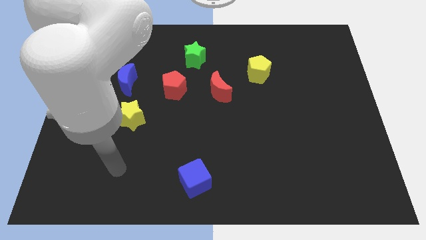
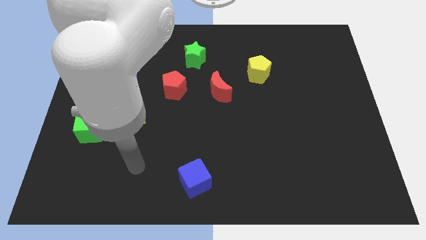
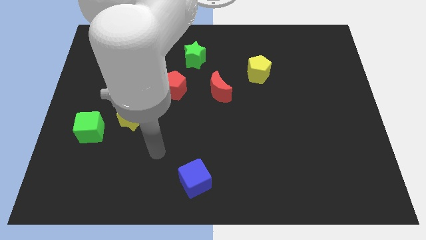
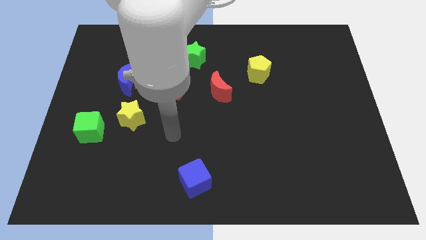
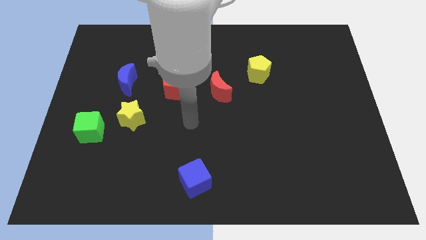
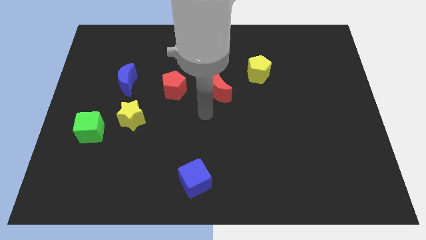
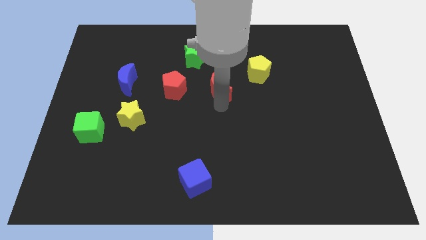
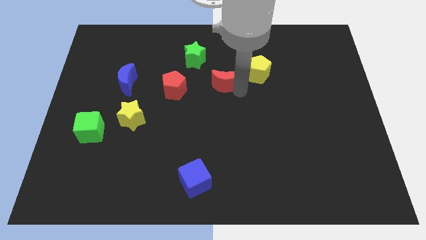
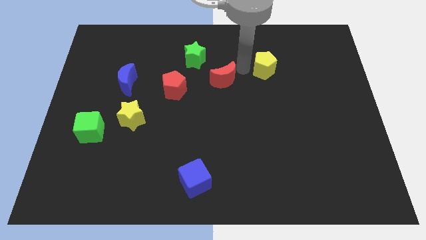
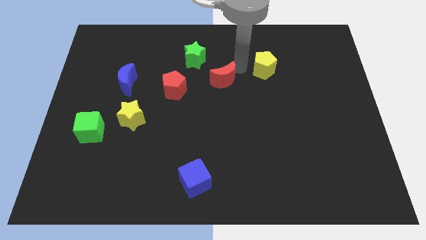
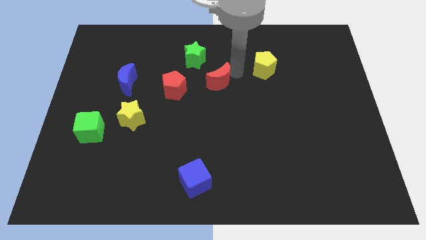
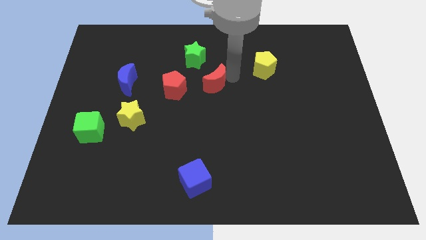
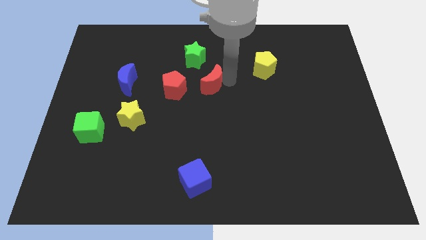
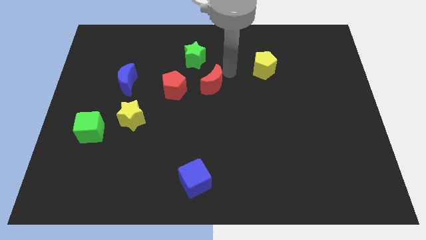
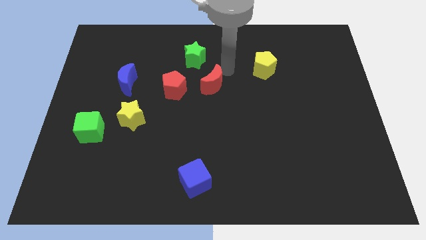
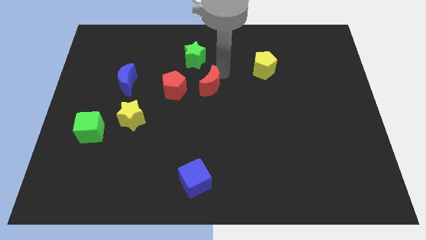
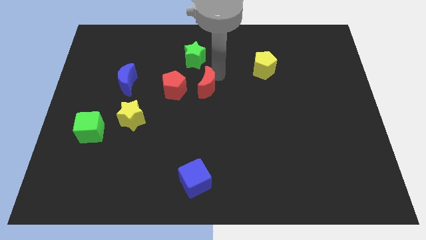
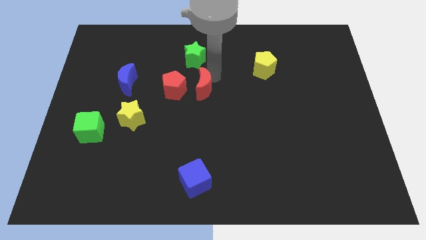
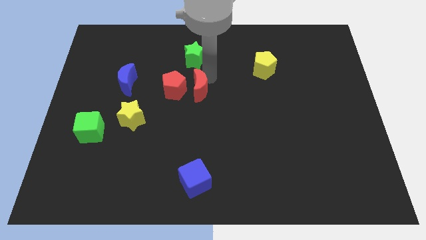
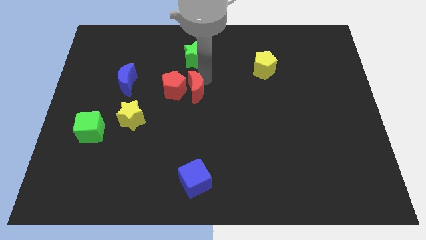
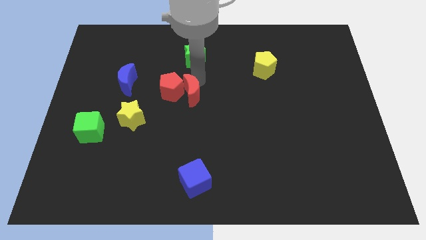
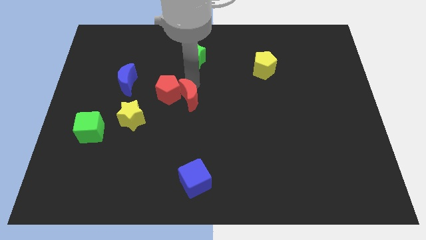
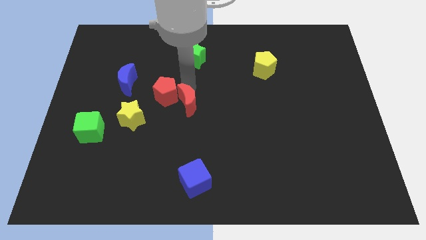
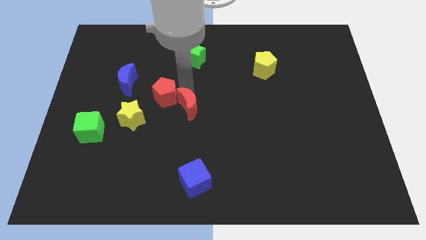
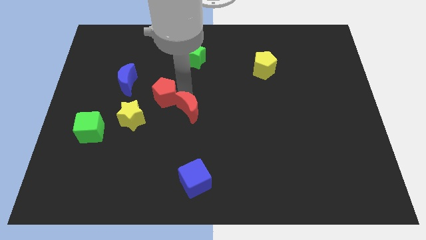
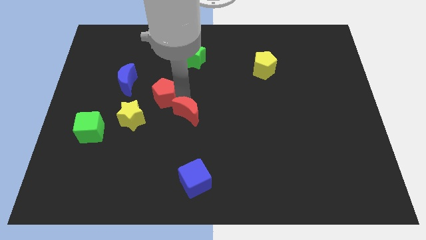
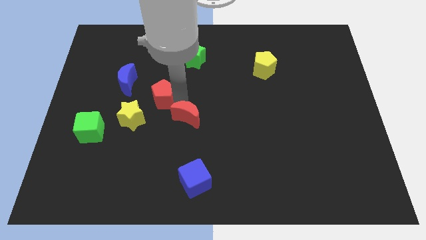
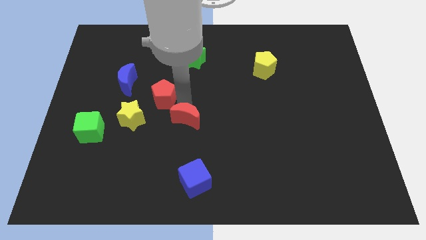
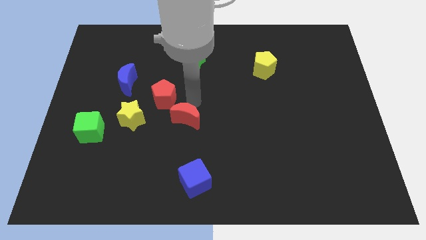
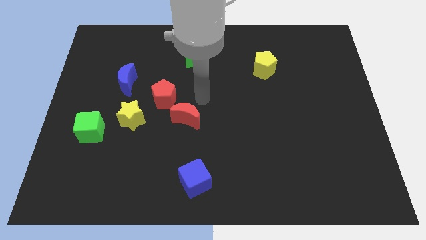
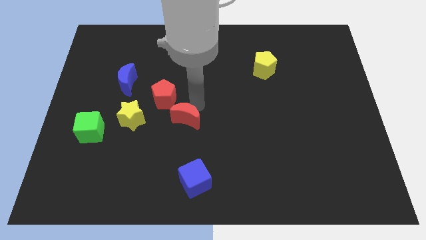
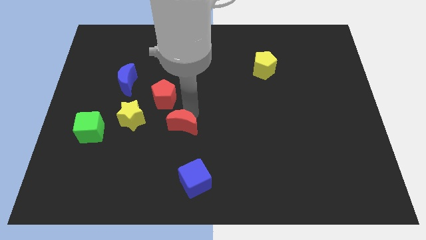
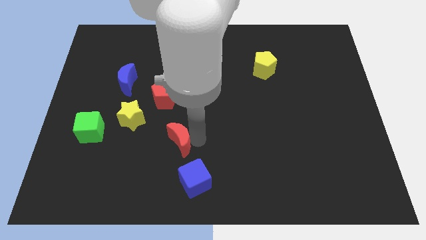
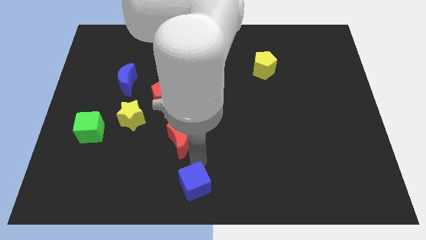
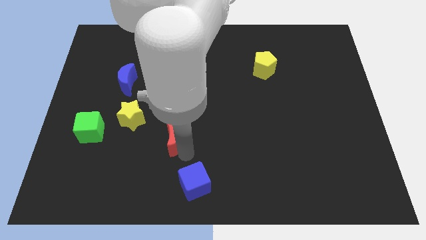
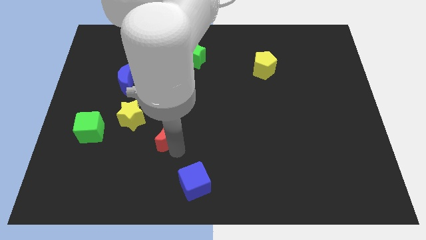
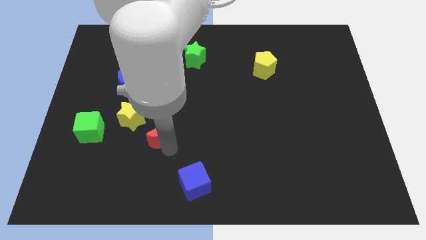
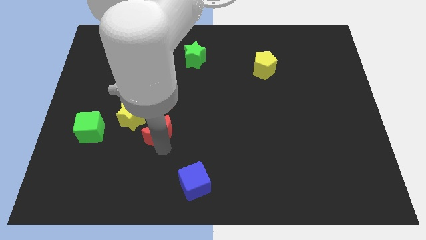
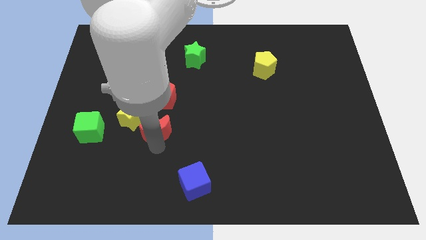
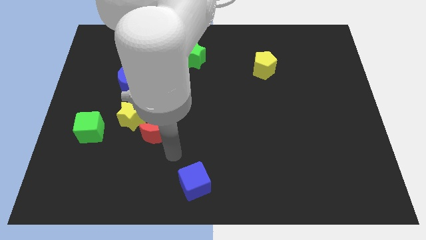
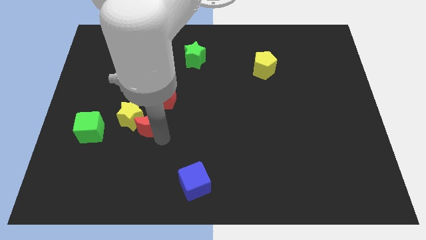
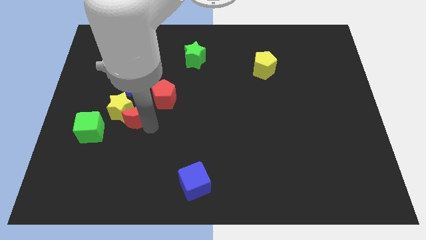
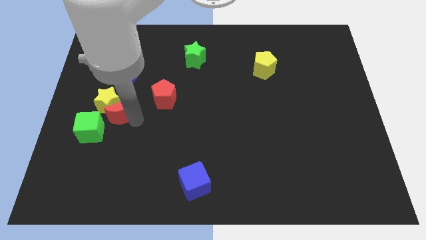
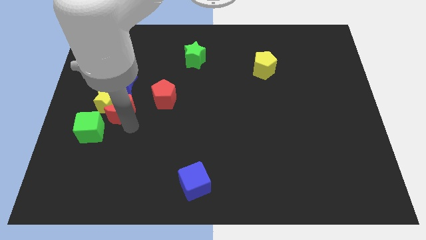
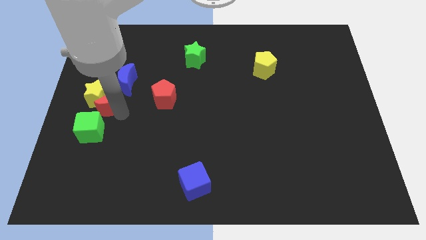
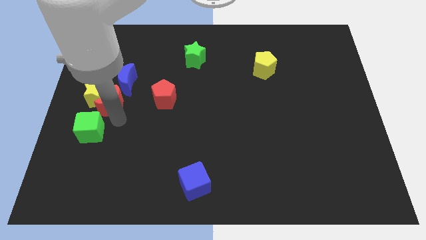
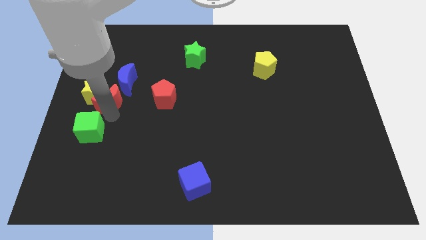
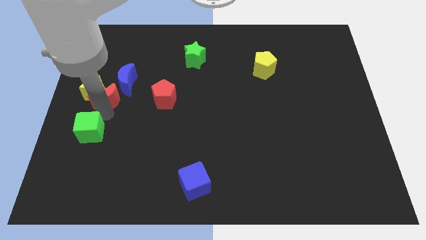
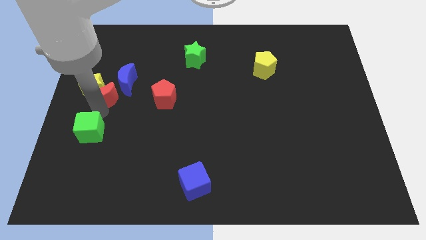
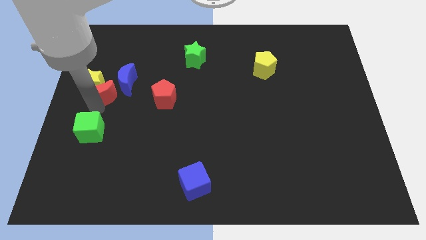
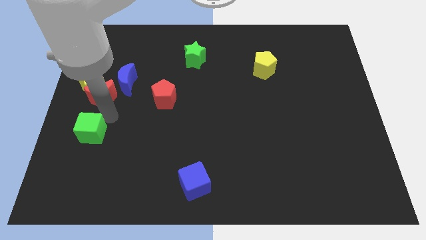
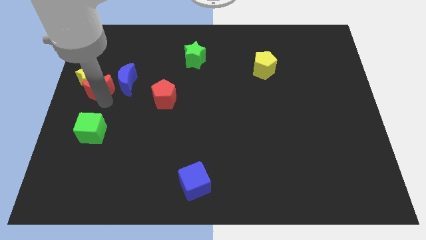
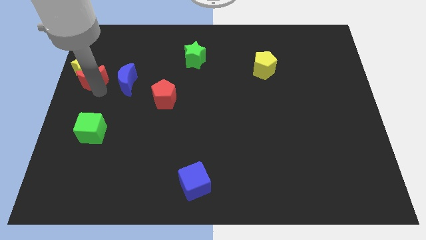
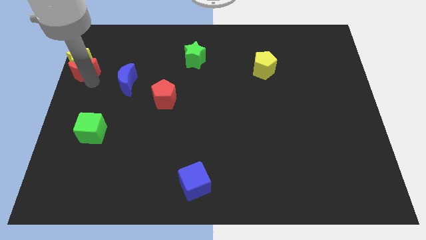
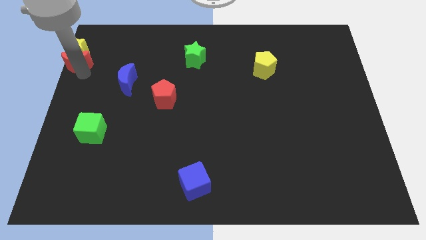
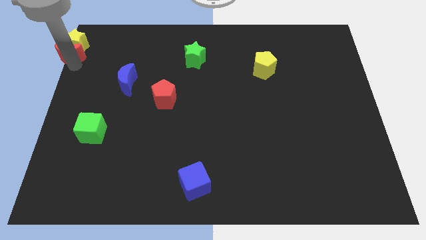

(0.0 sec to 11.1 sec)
slide the red moon to the top left corner

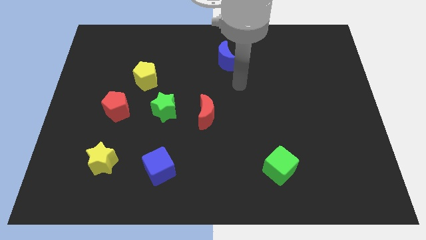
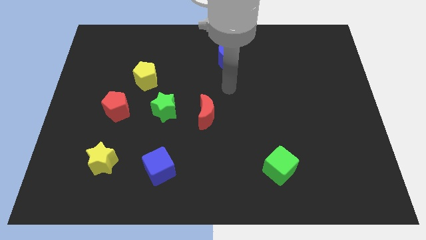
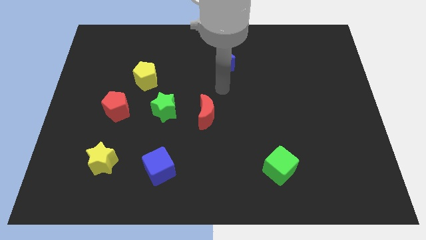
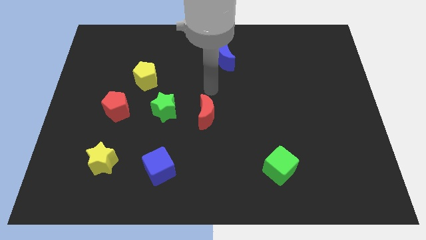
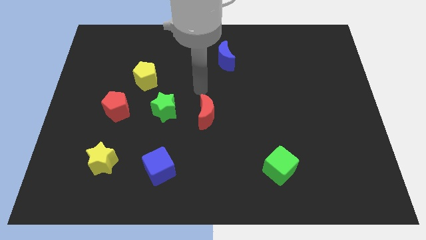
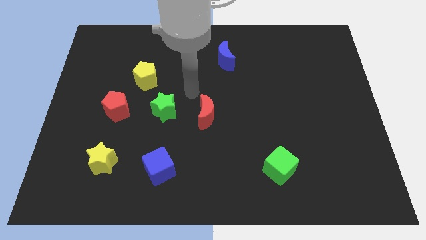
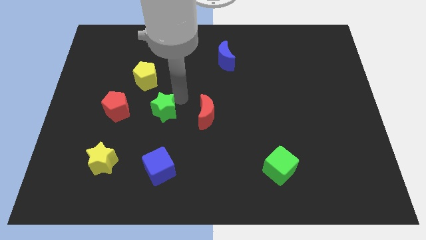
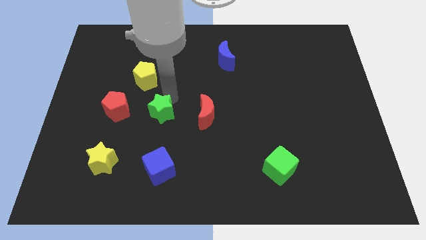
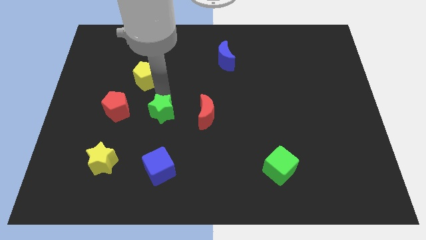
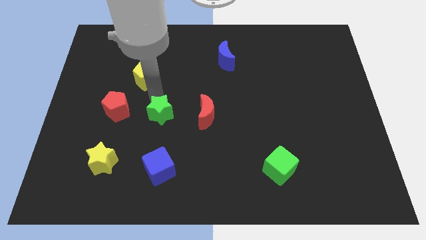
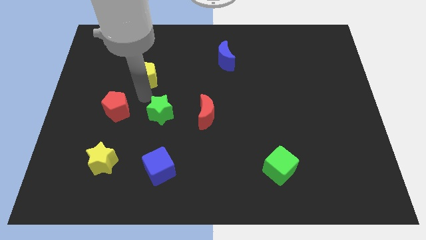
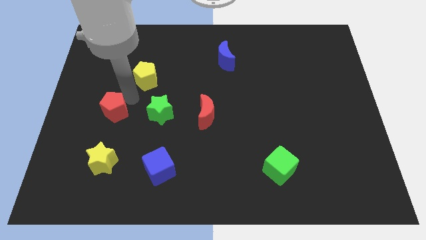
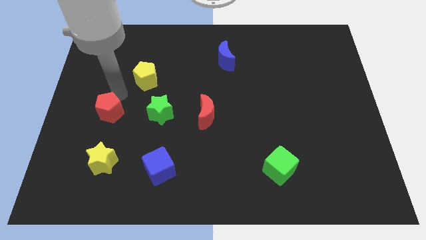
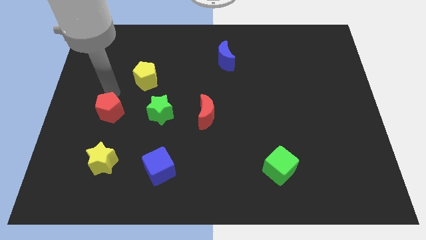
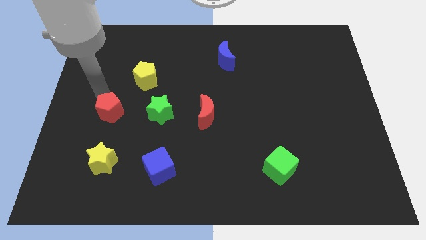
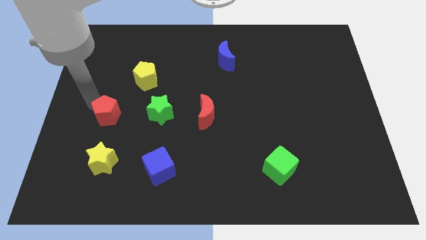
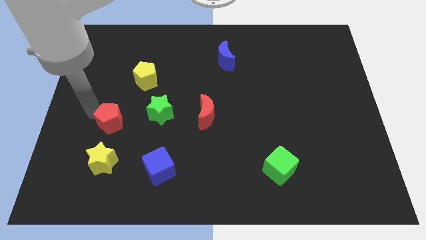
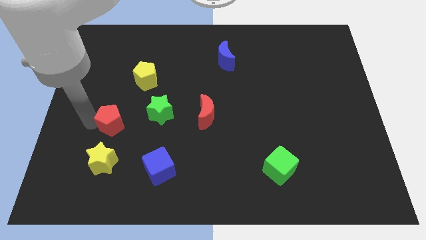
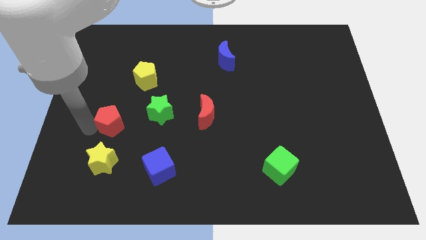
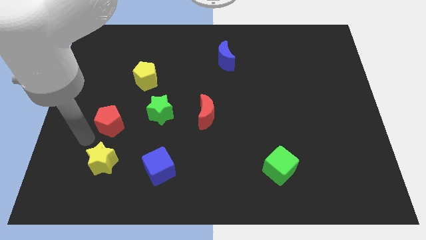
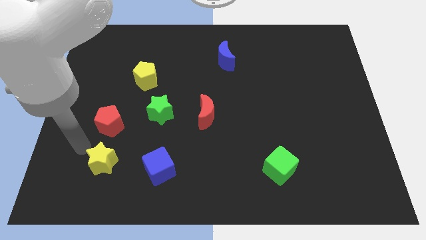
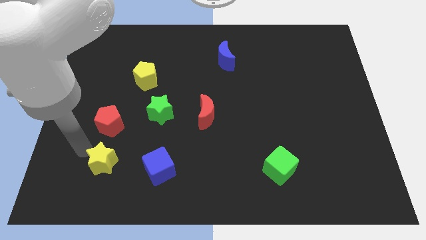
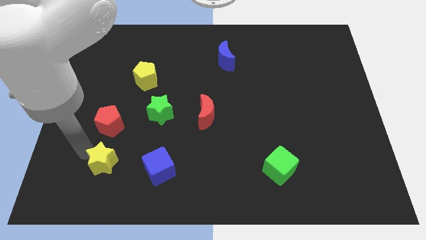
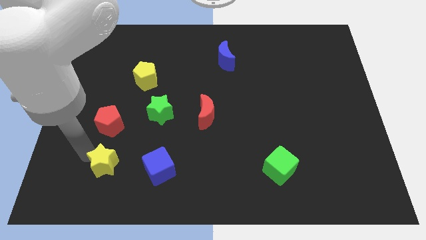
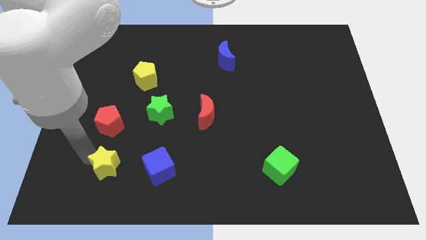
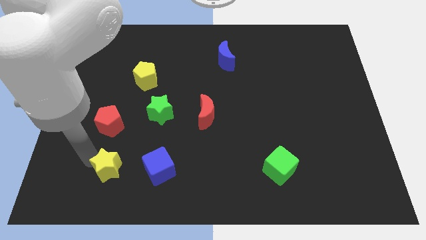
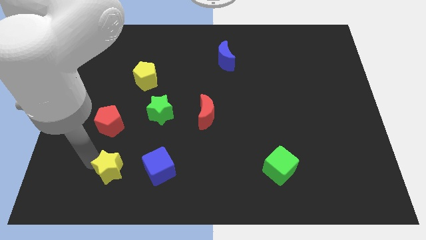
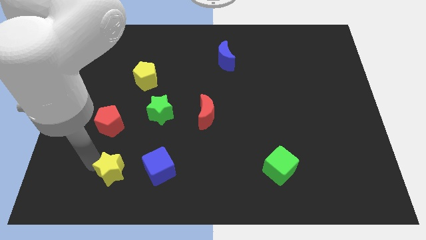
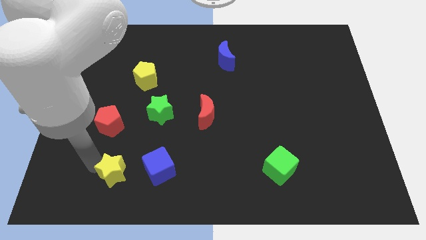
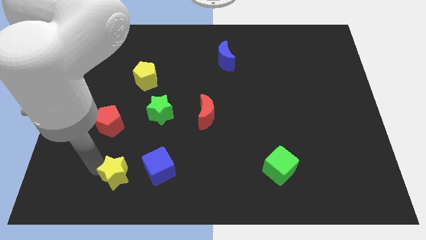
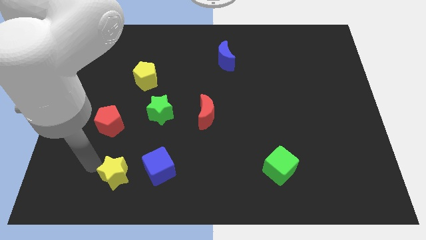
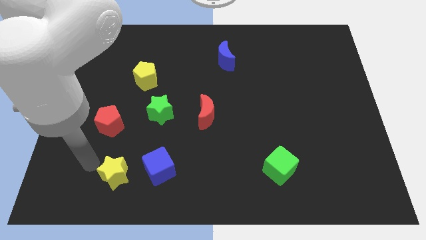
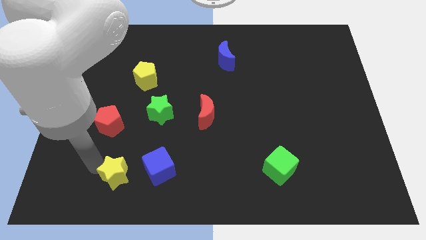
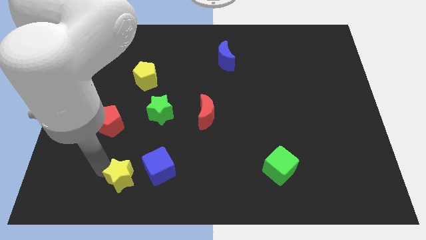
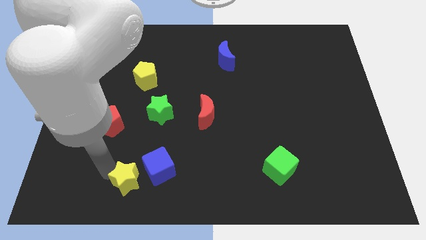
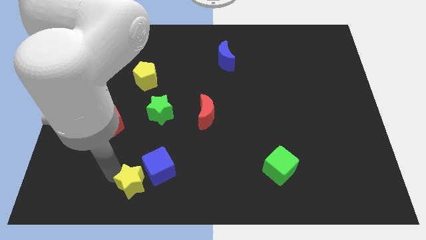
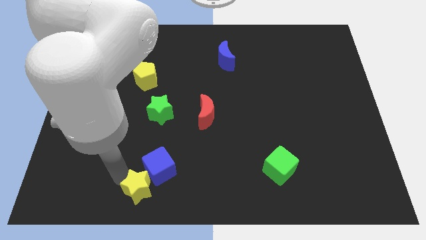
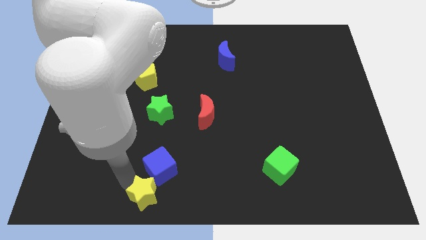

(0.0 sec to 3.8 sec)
slide the yellow star to the bottom
